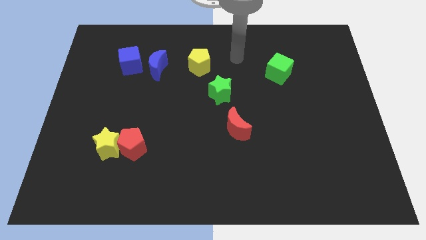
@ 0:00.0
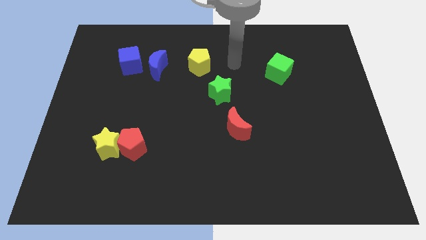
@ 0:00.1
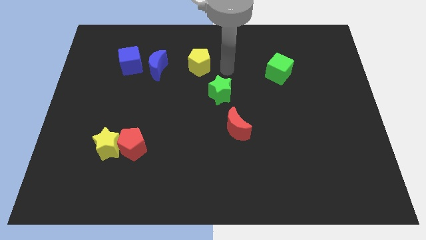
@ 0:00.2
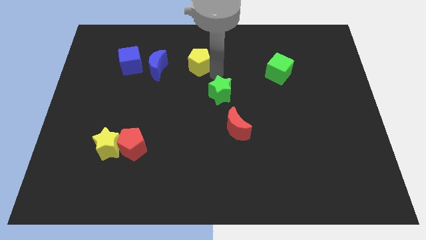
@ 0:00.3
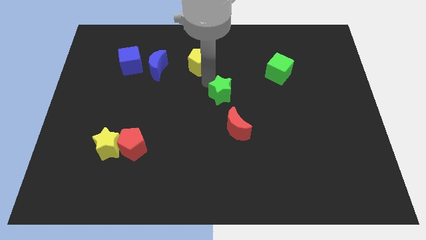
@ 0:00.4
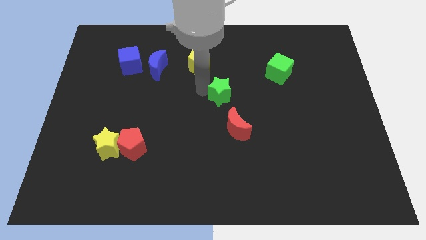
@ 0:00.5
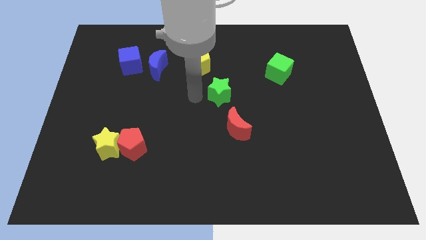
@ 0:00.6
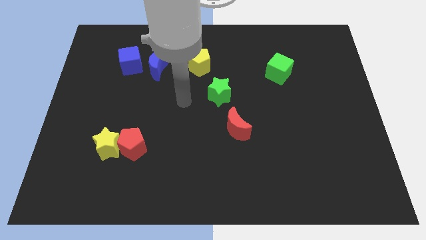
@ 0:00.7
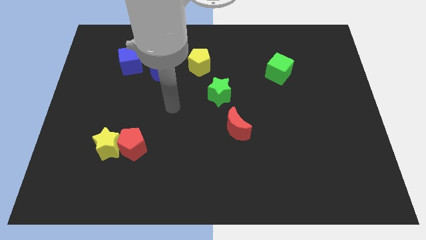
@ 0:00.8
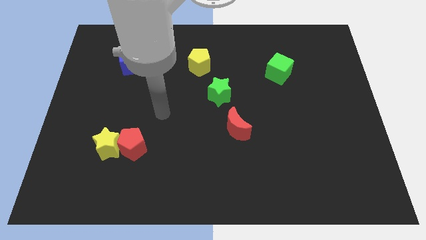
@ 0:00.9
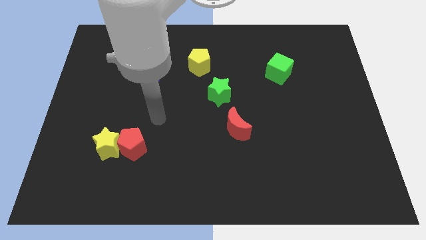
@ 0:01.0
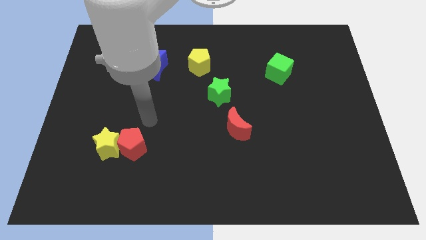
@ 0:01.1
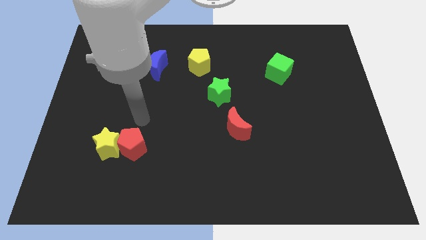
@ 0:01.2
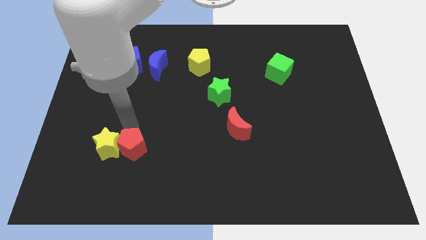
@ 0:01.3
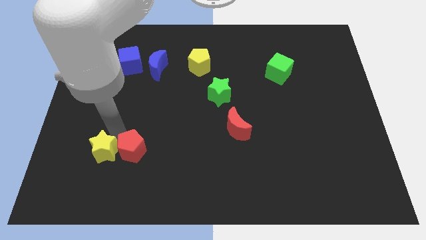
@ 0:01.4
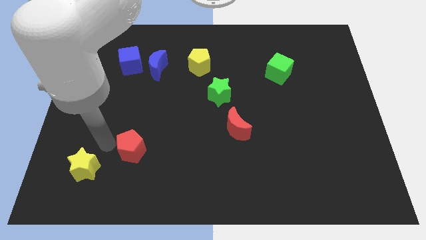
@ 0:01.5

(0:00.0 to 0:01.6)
move the red pentagon away from the yellow star

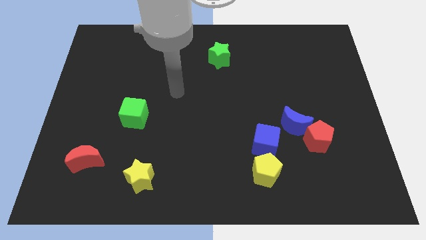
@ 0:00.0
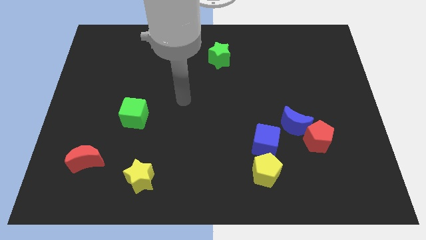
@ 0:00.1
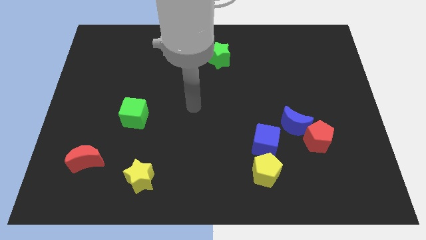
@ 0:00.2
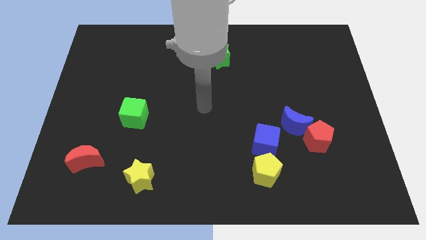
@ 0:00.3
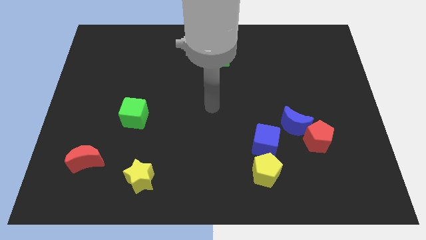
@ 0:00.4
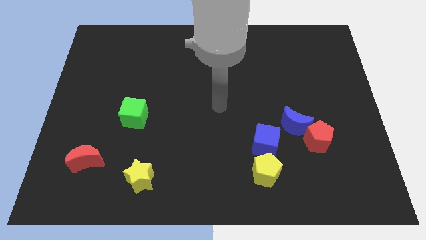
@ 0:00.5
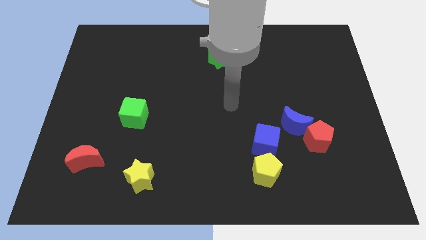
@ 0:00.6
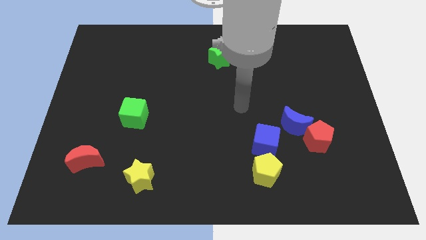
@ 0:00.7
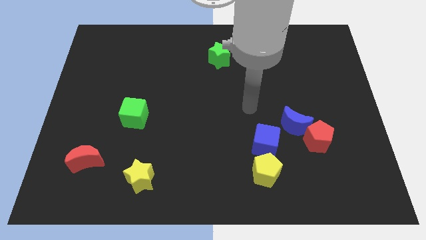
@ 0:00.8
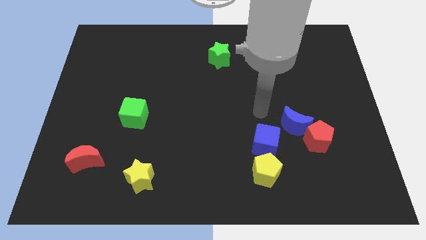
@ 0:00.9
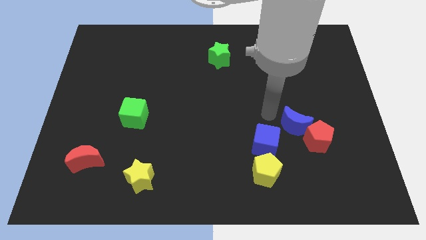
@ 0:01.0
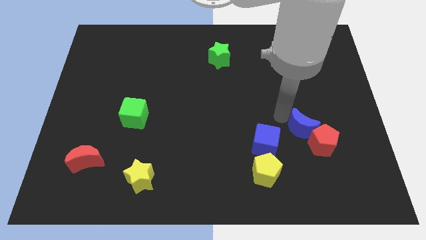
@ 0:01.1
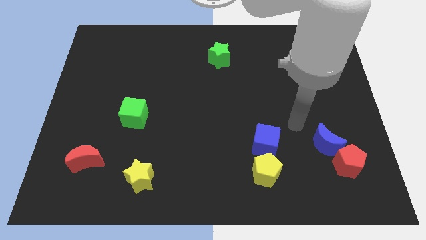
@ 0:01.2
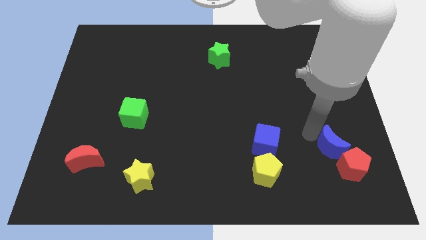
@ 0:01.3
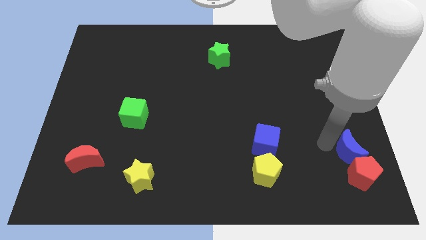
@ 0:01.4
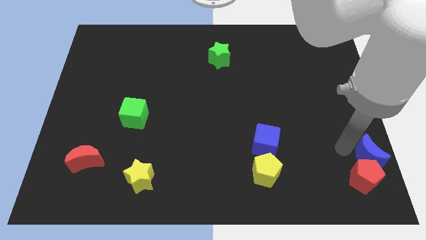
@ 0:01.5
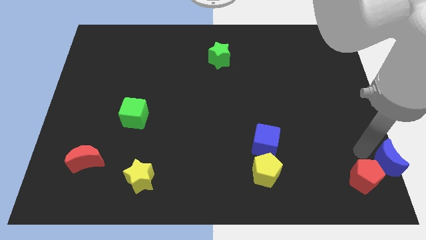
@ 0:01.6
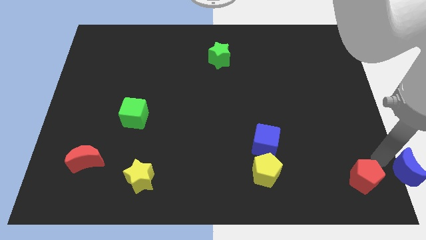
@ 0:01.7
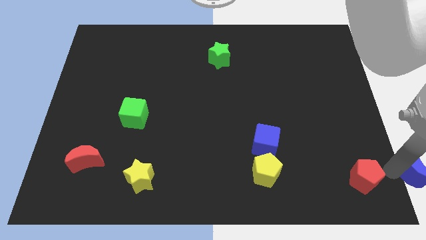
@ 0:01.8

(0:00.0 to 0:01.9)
move the red pentagon away from the blue moon

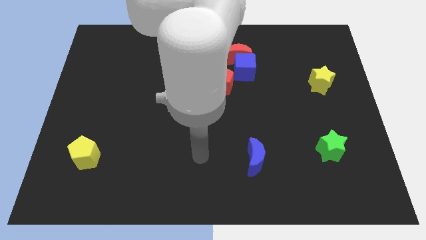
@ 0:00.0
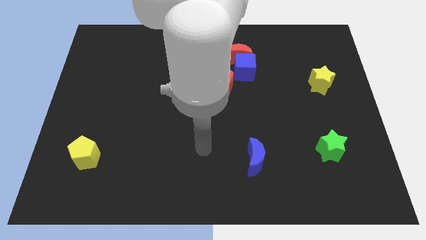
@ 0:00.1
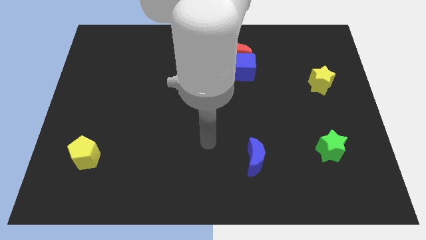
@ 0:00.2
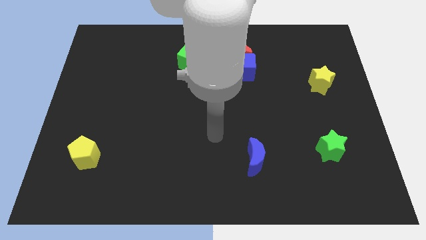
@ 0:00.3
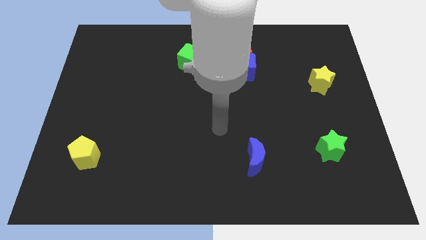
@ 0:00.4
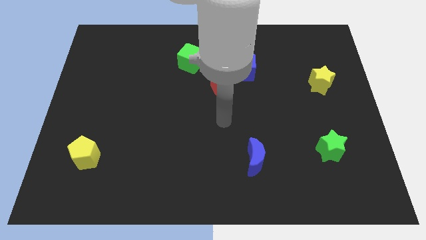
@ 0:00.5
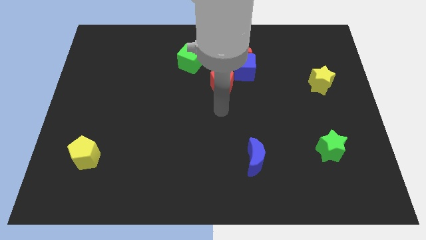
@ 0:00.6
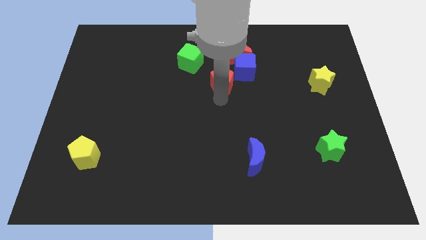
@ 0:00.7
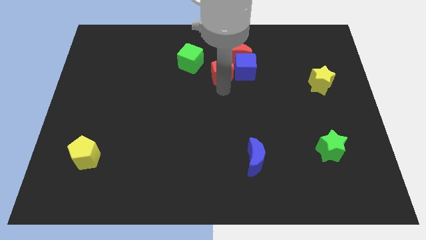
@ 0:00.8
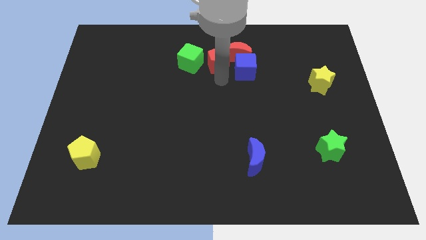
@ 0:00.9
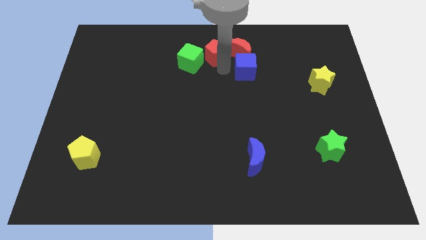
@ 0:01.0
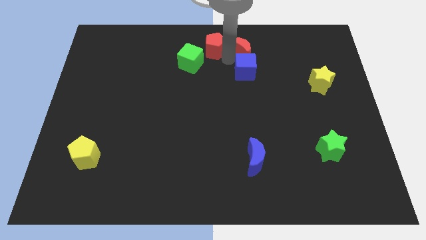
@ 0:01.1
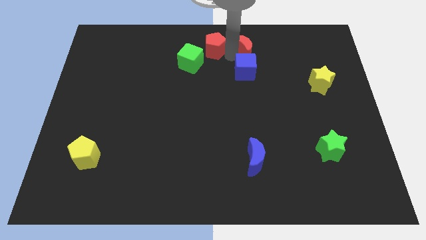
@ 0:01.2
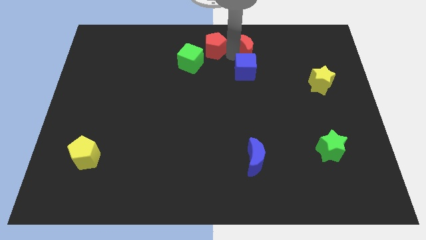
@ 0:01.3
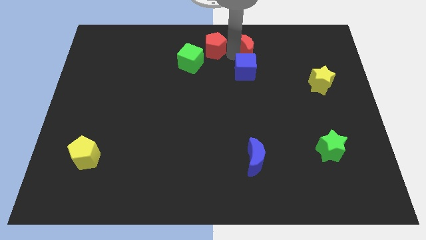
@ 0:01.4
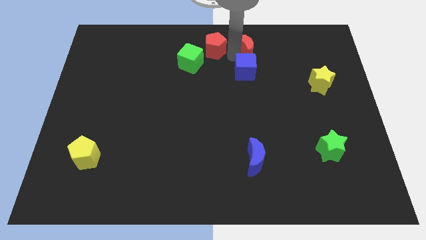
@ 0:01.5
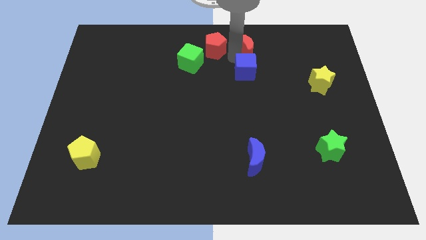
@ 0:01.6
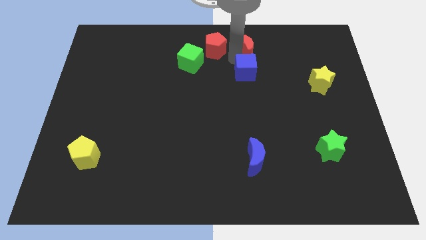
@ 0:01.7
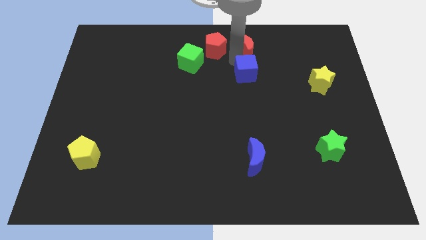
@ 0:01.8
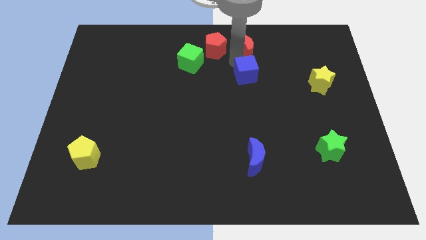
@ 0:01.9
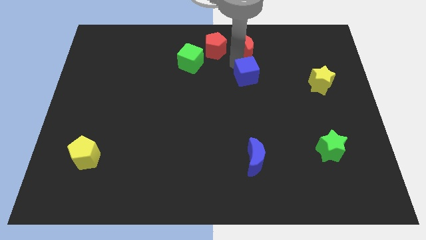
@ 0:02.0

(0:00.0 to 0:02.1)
move the blue cube away from the red moon and red pentagon

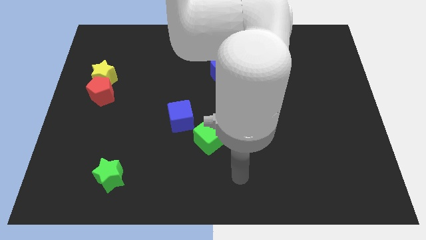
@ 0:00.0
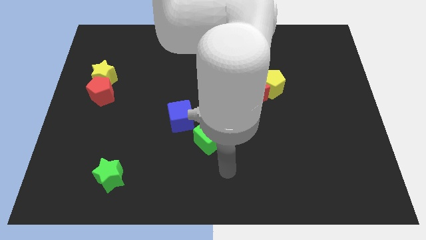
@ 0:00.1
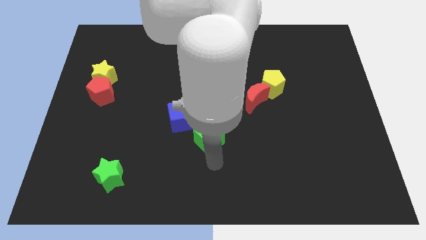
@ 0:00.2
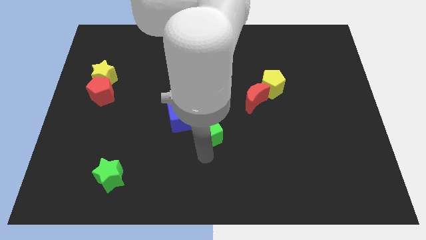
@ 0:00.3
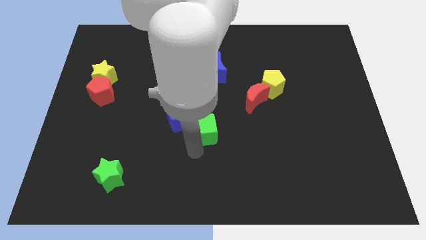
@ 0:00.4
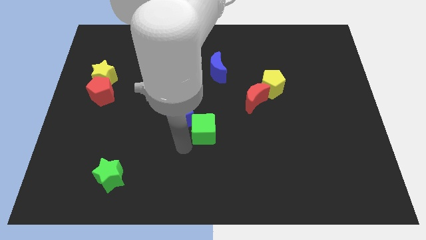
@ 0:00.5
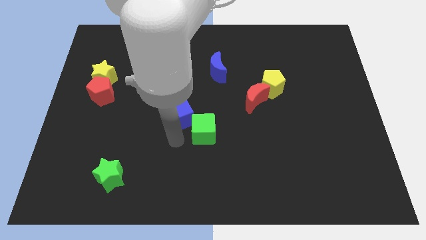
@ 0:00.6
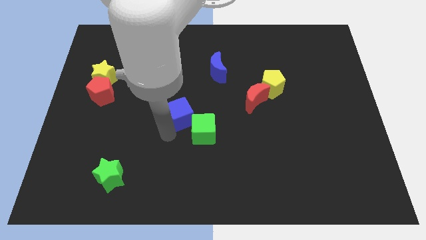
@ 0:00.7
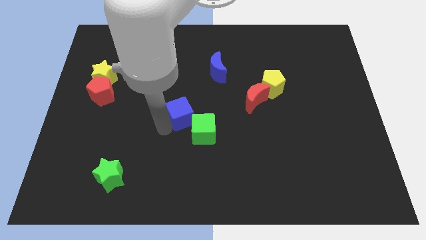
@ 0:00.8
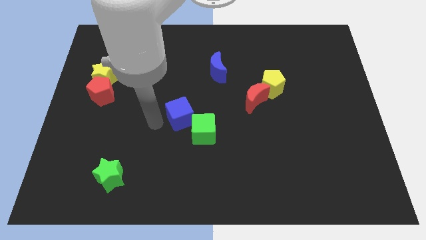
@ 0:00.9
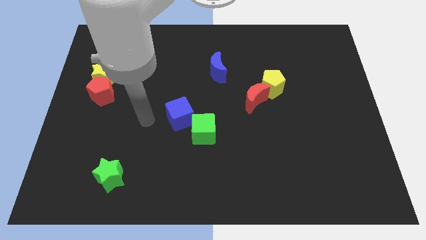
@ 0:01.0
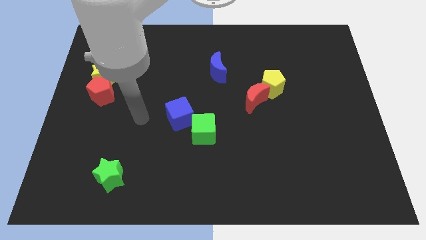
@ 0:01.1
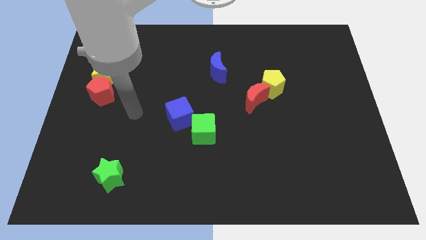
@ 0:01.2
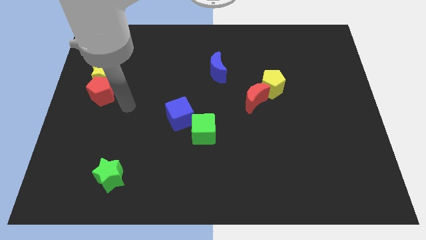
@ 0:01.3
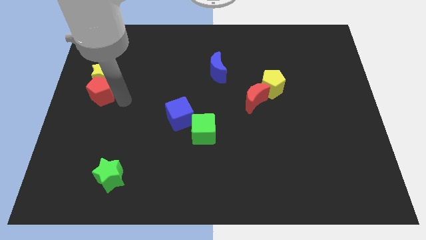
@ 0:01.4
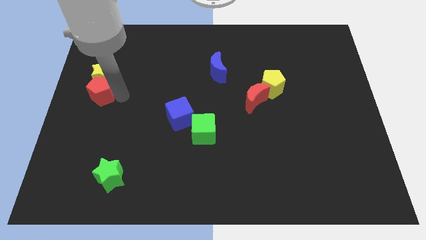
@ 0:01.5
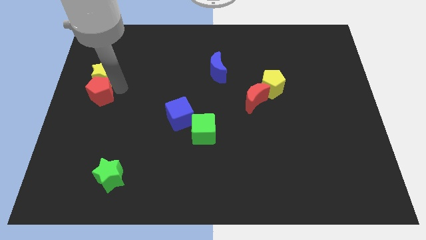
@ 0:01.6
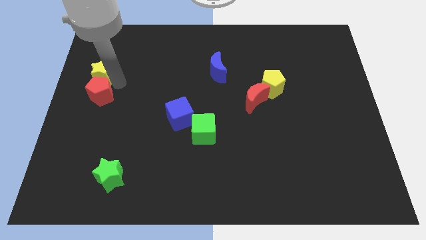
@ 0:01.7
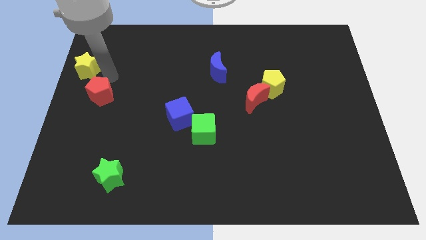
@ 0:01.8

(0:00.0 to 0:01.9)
separate the red pentagon from the yellow star

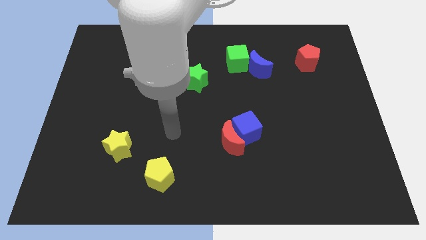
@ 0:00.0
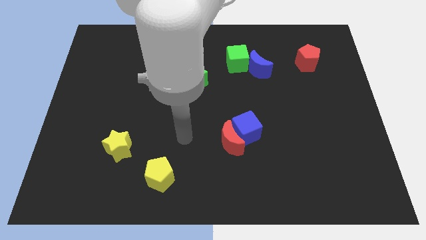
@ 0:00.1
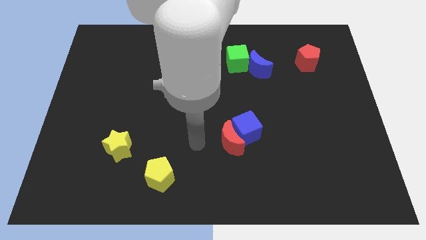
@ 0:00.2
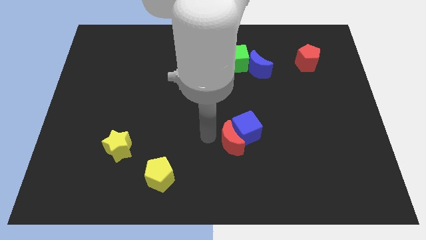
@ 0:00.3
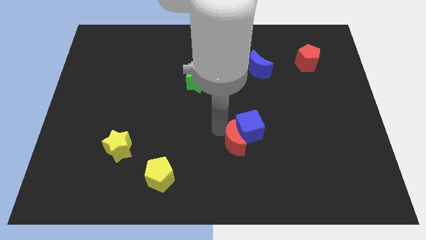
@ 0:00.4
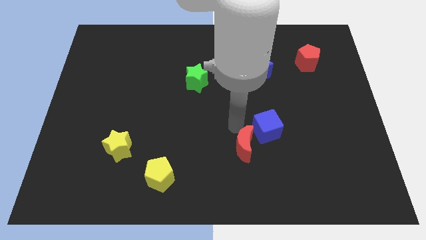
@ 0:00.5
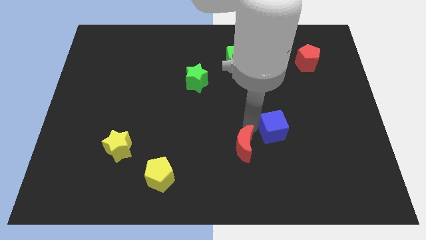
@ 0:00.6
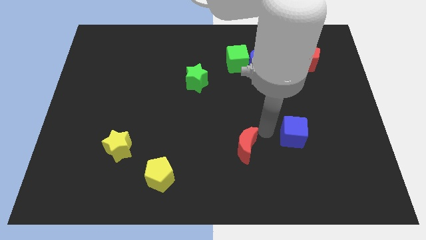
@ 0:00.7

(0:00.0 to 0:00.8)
pull the red moon apart from the blue cube

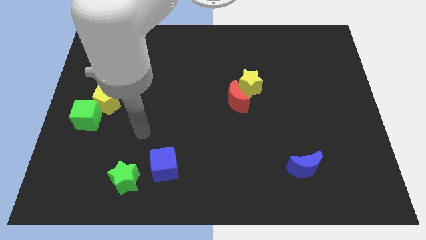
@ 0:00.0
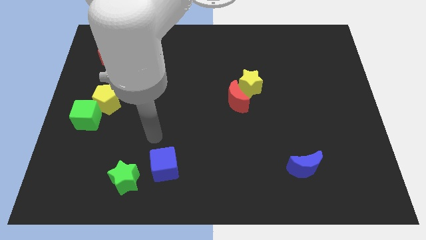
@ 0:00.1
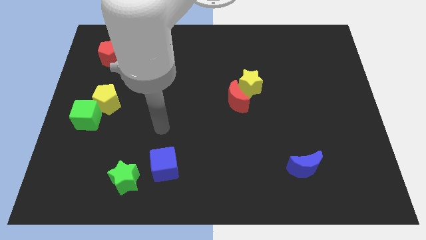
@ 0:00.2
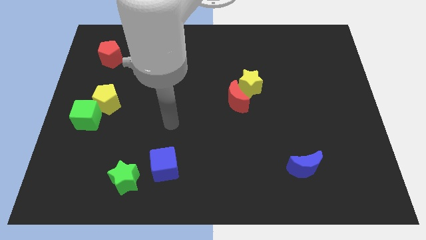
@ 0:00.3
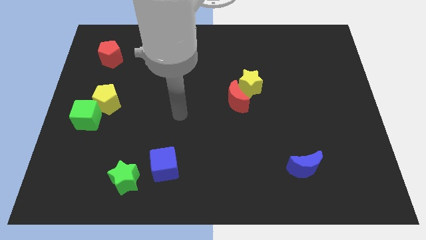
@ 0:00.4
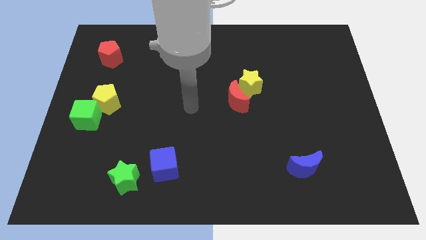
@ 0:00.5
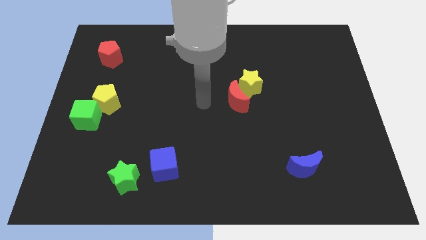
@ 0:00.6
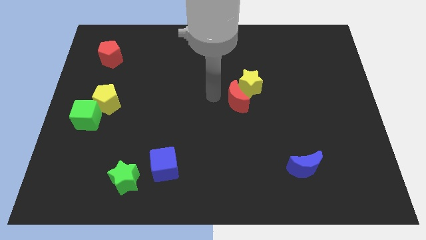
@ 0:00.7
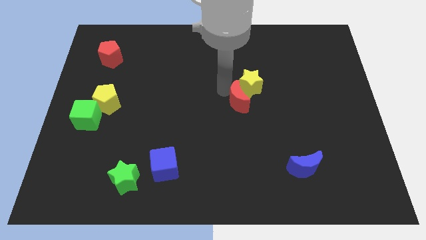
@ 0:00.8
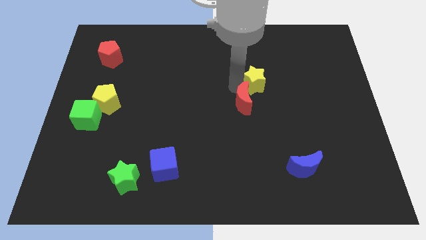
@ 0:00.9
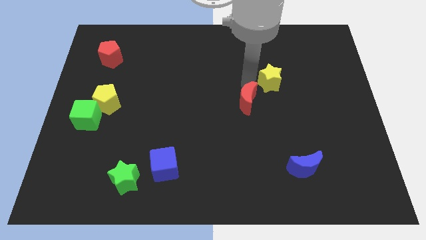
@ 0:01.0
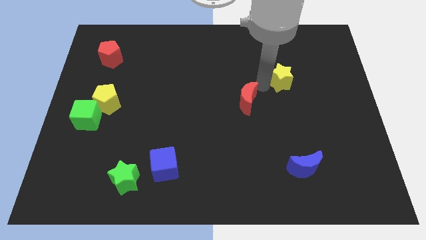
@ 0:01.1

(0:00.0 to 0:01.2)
pull the red moon apart from the yellow star
